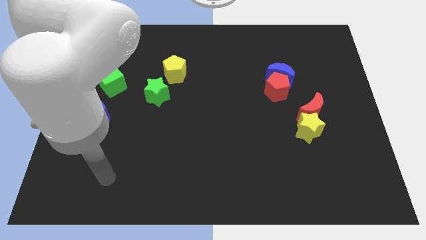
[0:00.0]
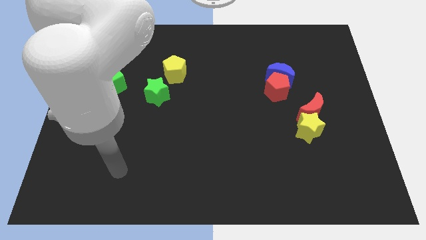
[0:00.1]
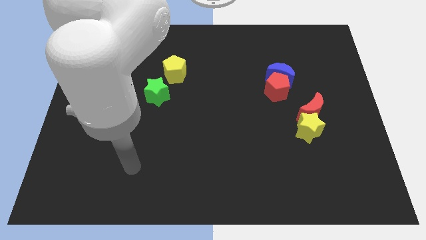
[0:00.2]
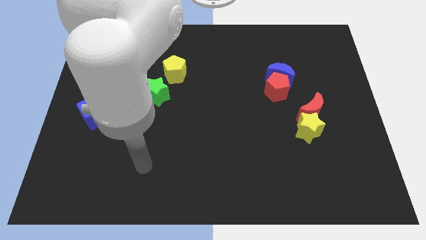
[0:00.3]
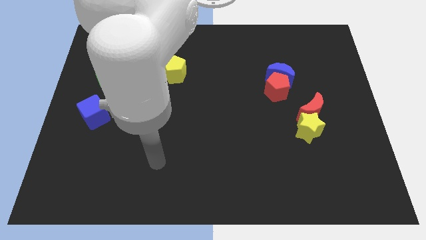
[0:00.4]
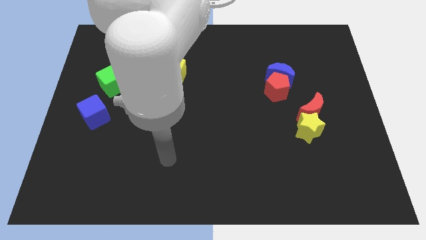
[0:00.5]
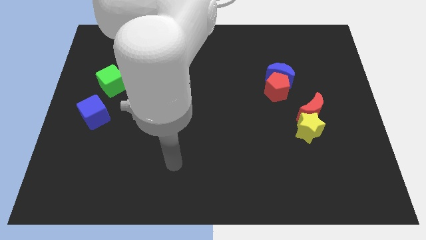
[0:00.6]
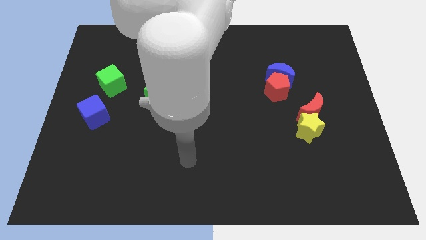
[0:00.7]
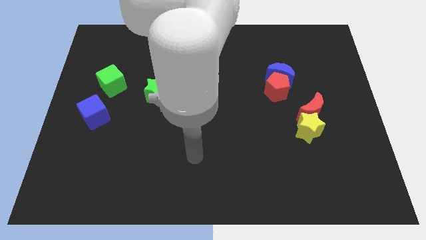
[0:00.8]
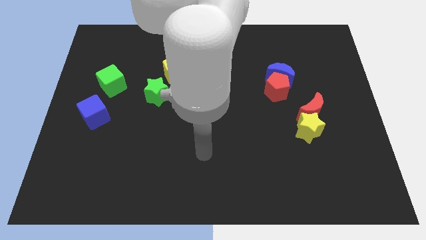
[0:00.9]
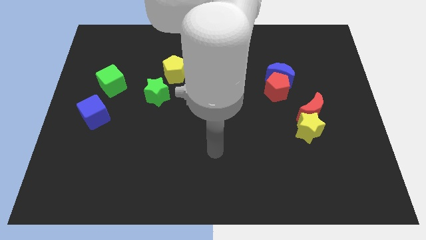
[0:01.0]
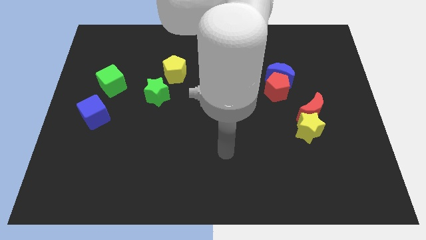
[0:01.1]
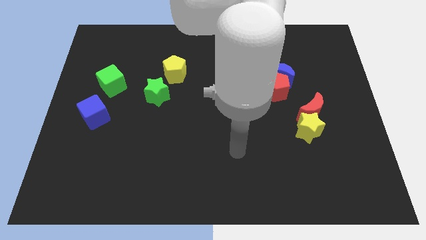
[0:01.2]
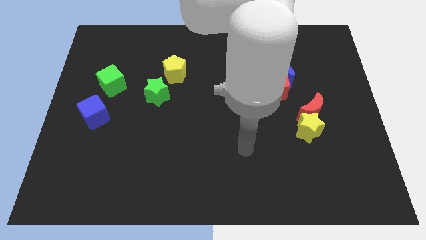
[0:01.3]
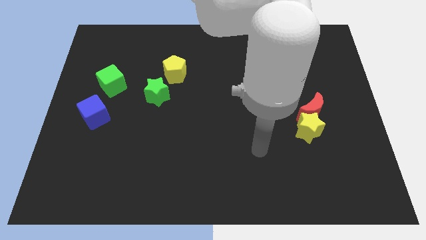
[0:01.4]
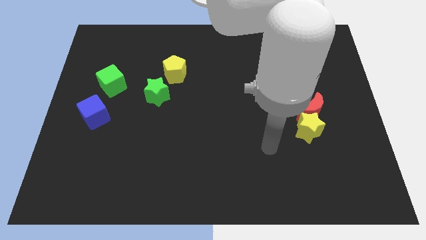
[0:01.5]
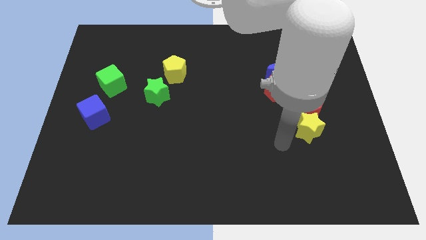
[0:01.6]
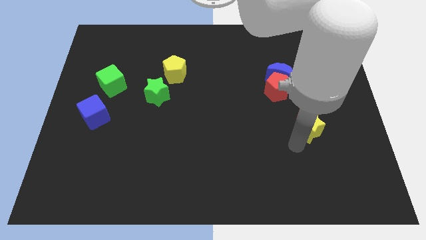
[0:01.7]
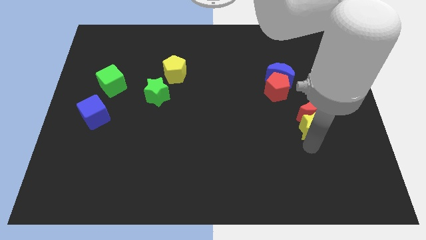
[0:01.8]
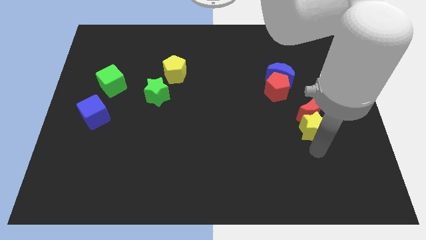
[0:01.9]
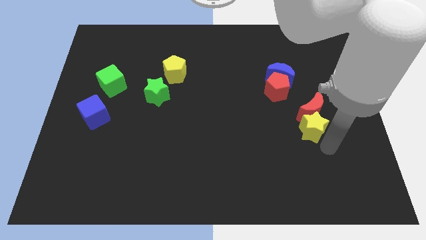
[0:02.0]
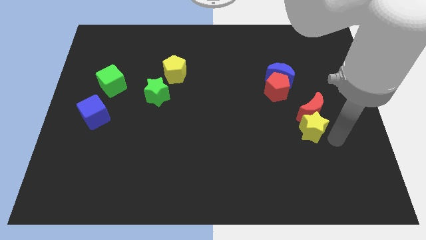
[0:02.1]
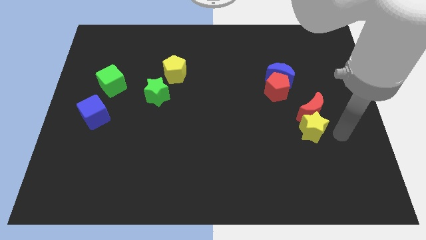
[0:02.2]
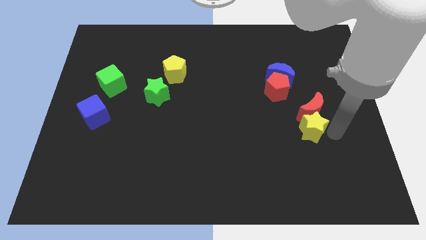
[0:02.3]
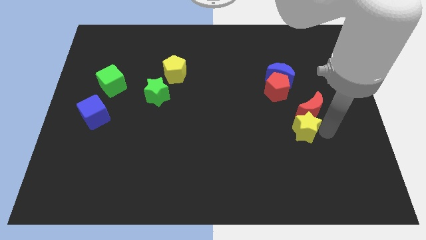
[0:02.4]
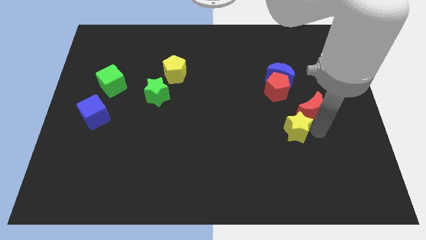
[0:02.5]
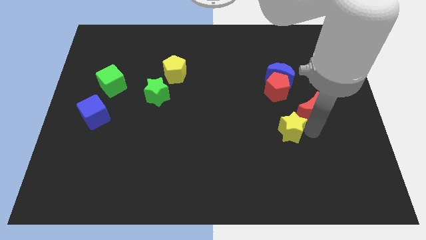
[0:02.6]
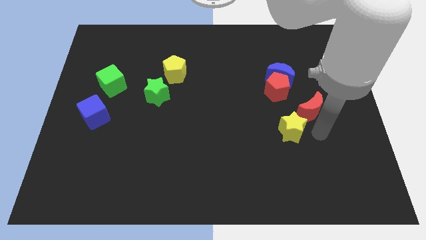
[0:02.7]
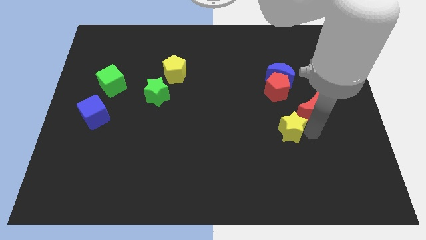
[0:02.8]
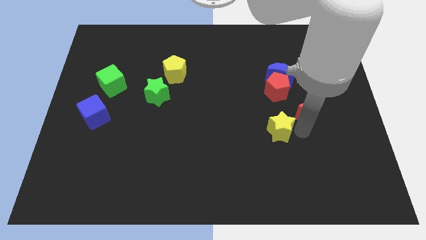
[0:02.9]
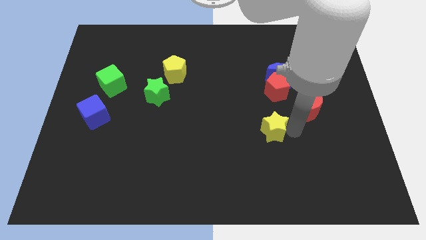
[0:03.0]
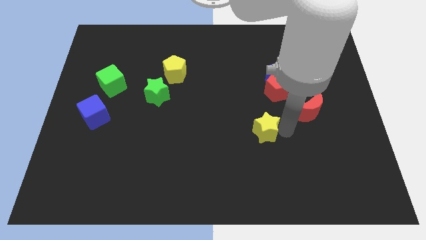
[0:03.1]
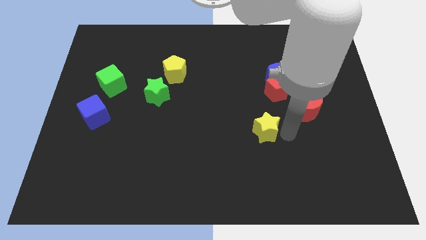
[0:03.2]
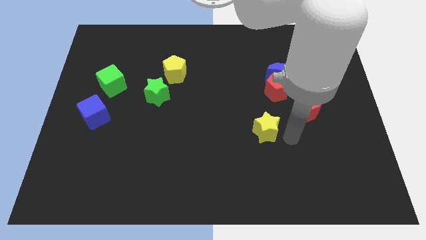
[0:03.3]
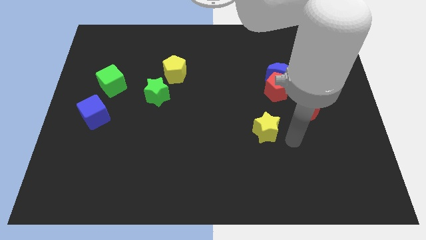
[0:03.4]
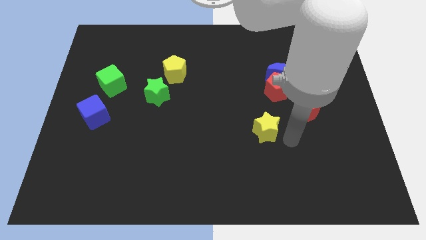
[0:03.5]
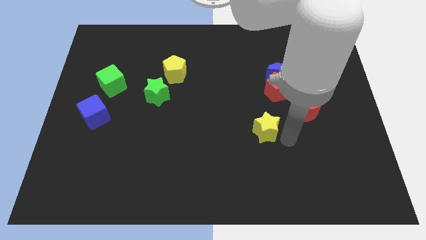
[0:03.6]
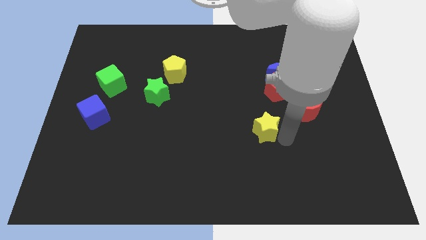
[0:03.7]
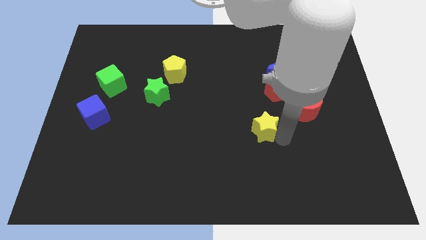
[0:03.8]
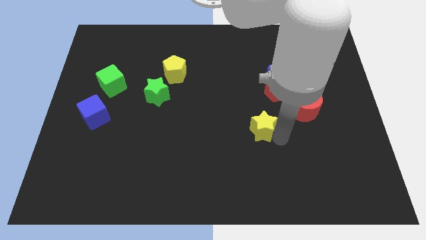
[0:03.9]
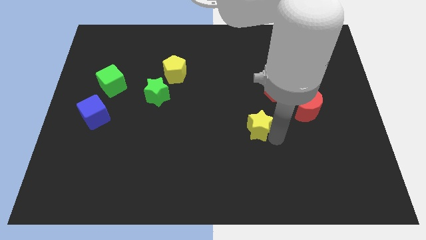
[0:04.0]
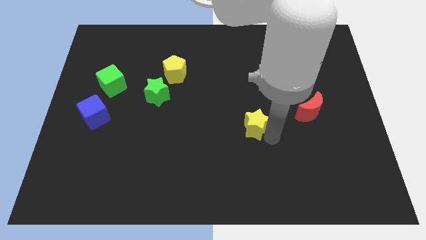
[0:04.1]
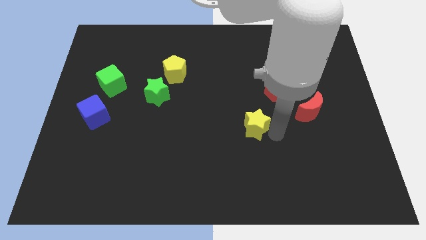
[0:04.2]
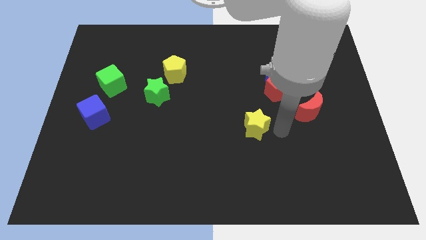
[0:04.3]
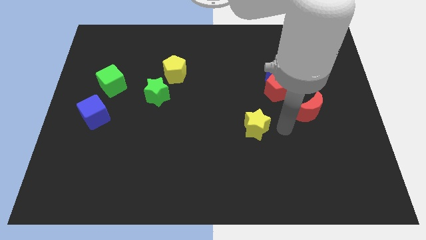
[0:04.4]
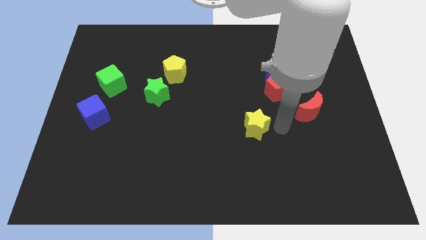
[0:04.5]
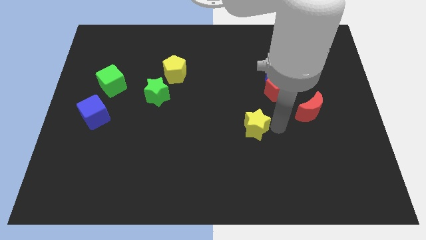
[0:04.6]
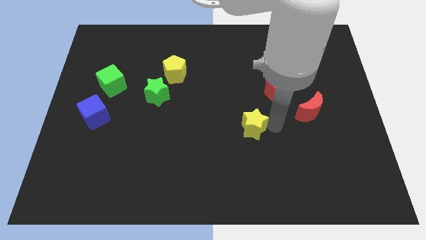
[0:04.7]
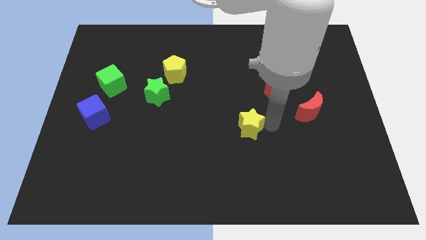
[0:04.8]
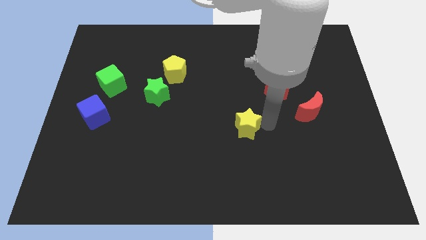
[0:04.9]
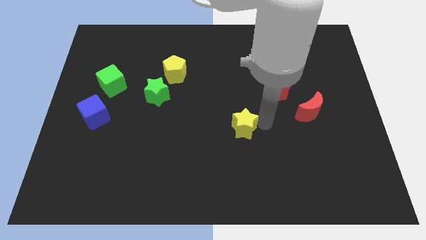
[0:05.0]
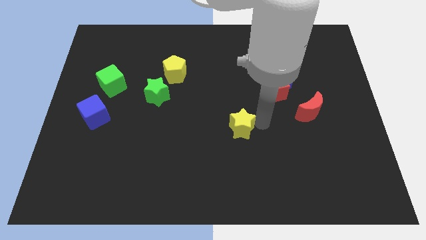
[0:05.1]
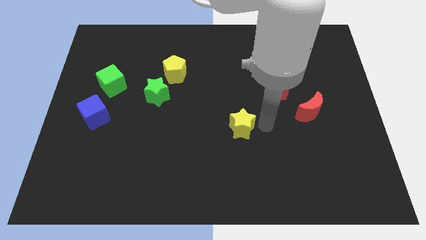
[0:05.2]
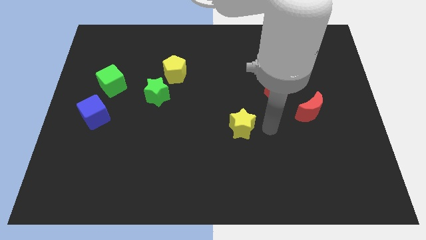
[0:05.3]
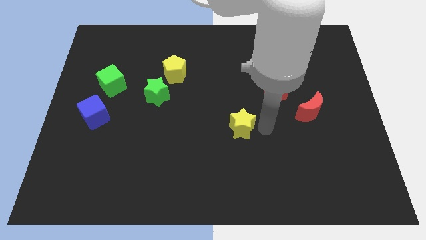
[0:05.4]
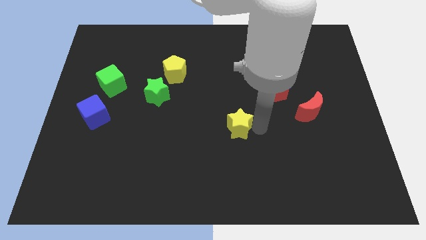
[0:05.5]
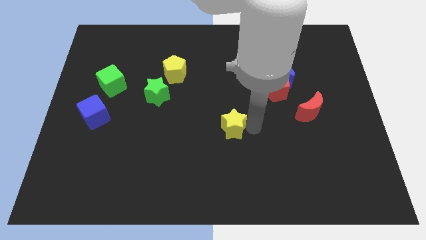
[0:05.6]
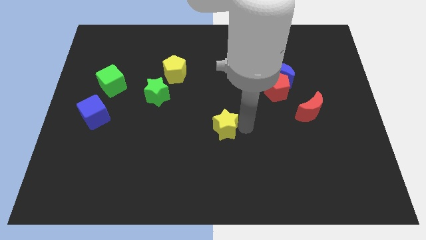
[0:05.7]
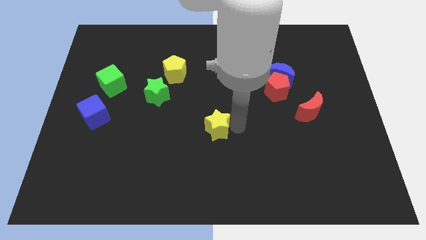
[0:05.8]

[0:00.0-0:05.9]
push the yellow star left

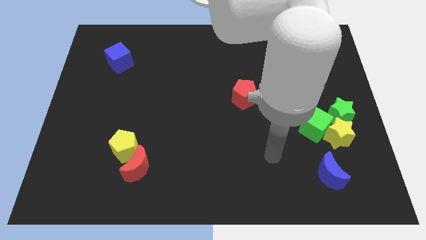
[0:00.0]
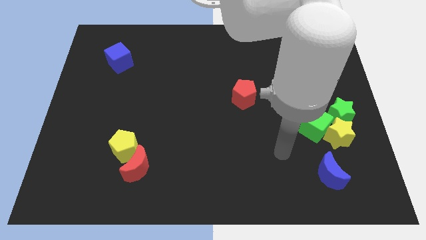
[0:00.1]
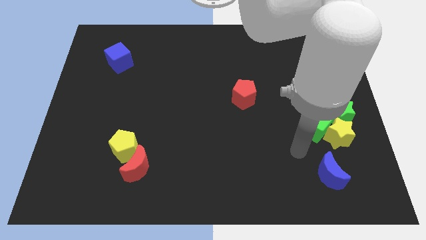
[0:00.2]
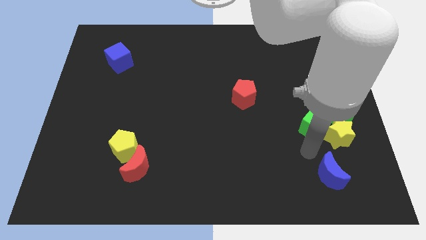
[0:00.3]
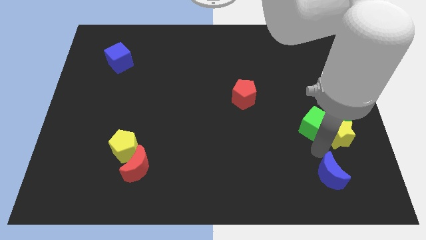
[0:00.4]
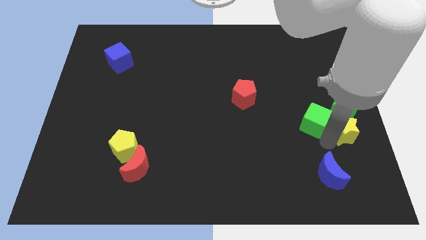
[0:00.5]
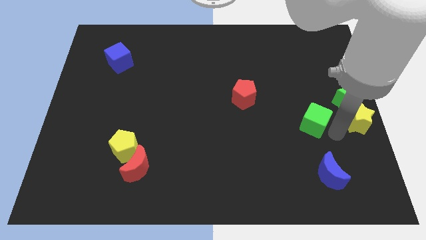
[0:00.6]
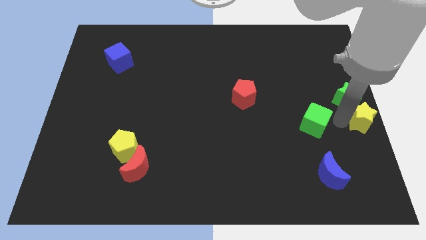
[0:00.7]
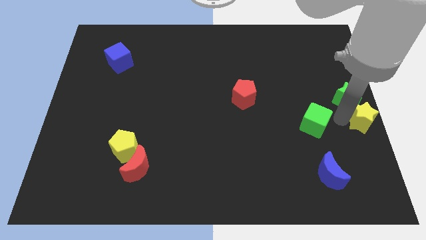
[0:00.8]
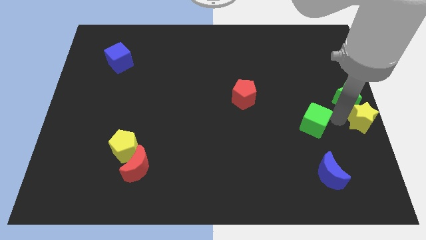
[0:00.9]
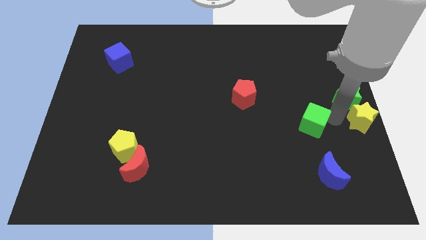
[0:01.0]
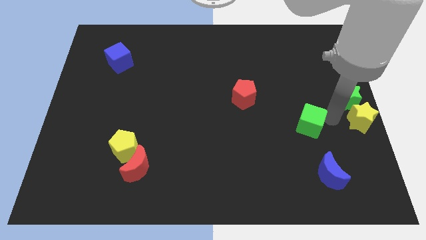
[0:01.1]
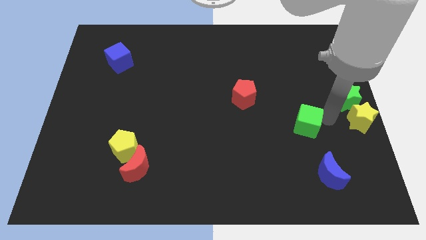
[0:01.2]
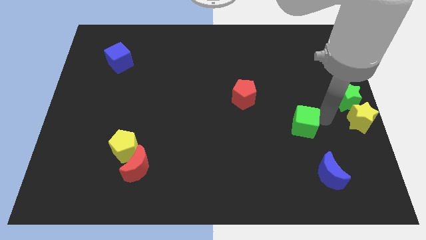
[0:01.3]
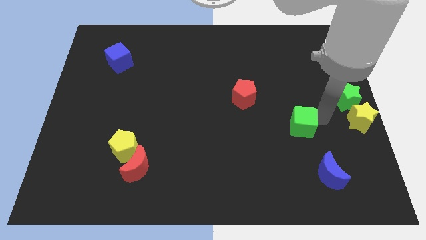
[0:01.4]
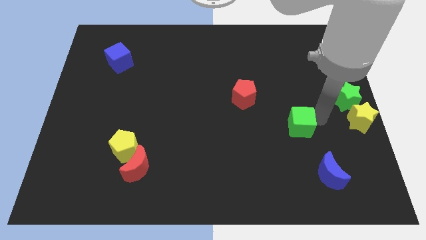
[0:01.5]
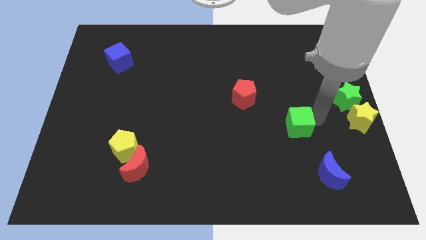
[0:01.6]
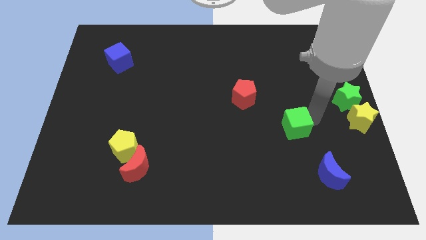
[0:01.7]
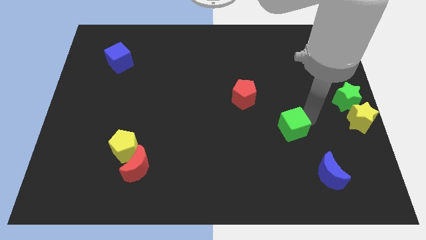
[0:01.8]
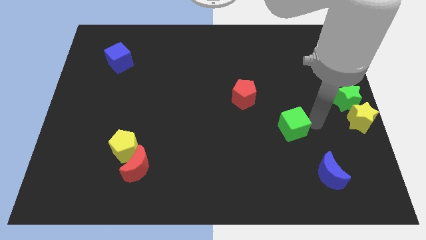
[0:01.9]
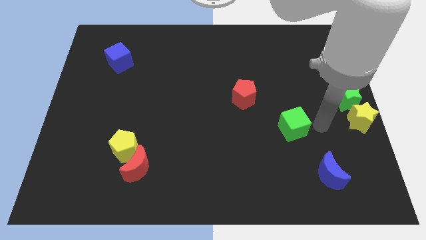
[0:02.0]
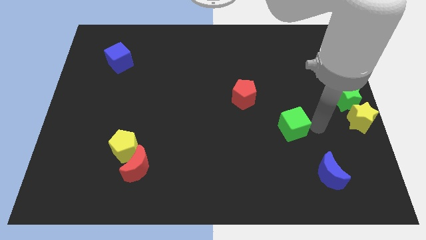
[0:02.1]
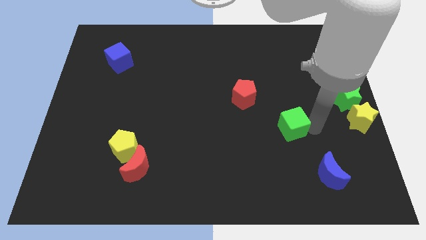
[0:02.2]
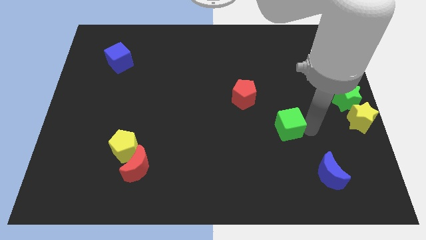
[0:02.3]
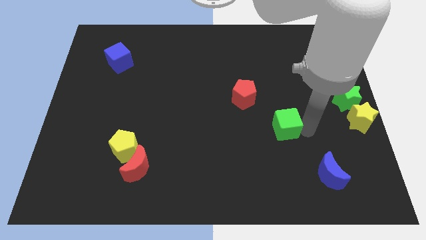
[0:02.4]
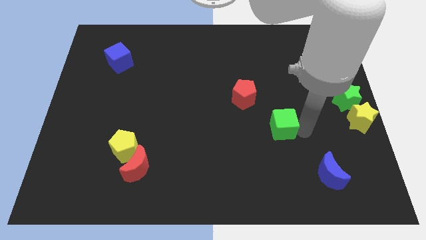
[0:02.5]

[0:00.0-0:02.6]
slightly slide the green cube left
